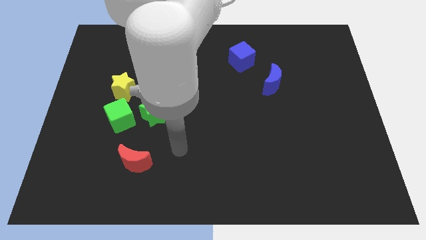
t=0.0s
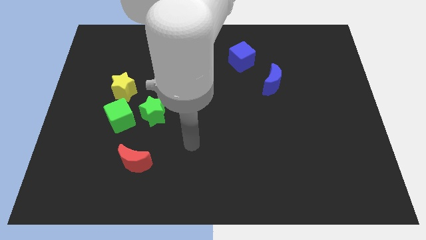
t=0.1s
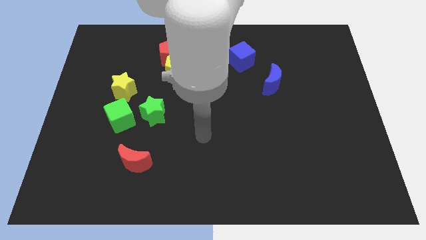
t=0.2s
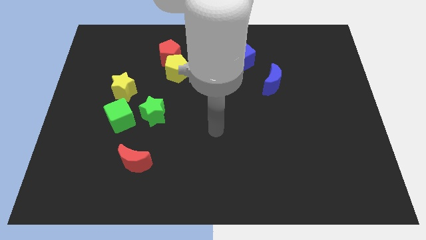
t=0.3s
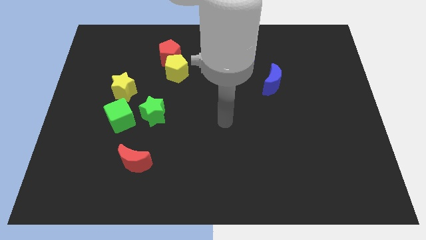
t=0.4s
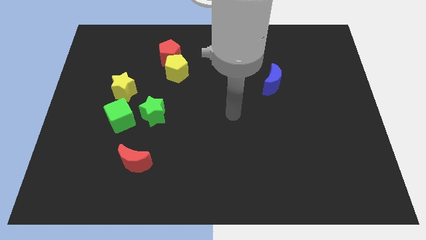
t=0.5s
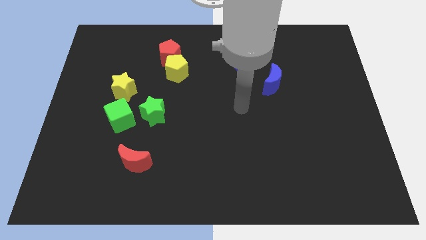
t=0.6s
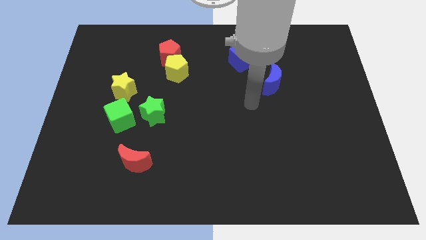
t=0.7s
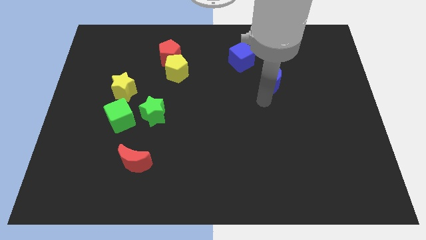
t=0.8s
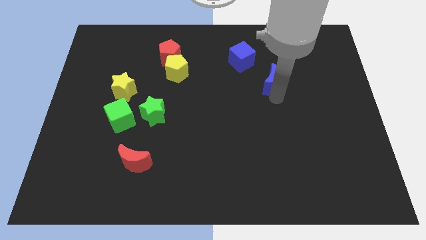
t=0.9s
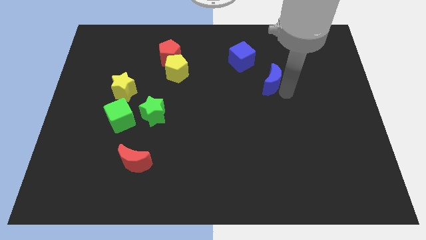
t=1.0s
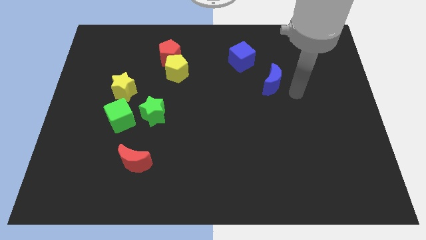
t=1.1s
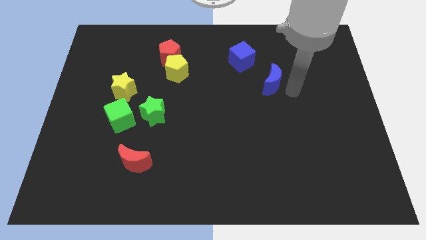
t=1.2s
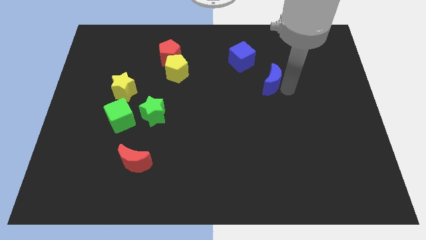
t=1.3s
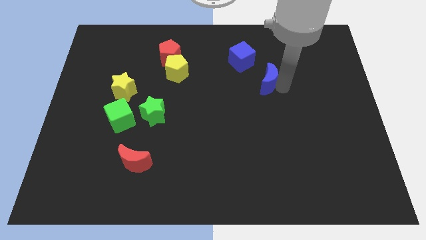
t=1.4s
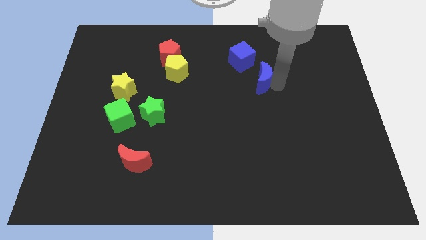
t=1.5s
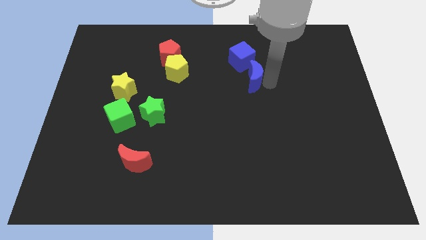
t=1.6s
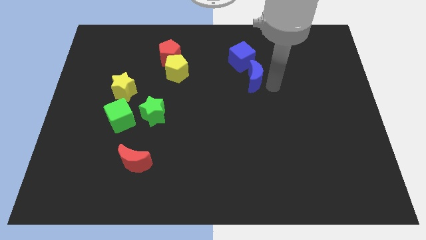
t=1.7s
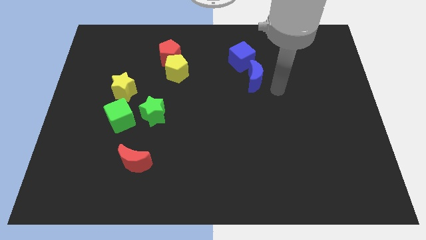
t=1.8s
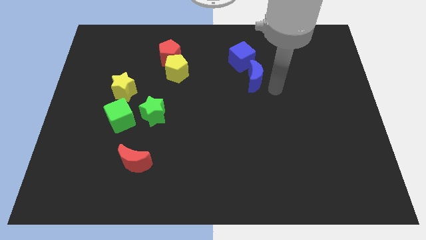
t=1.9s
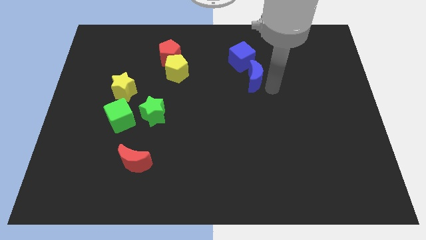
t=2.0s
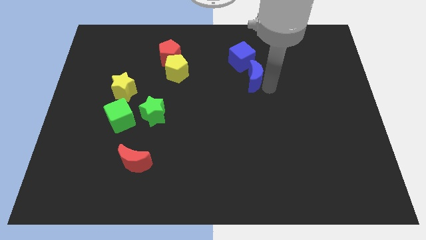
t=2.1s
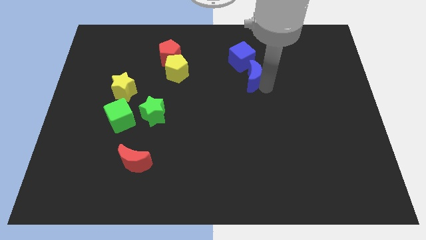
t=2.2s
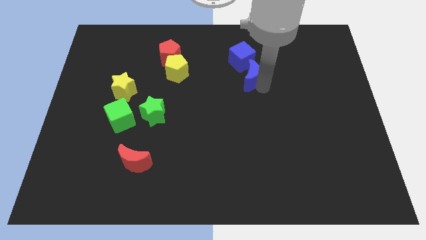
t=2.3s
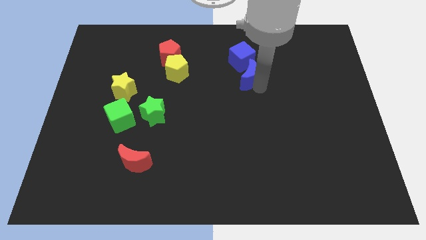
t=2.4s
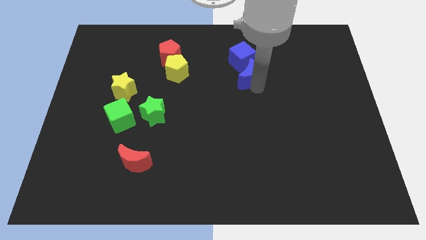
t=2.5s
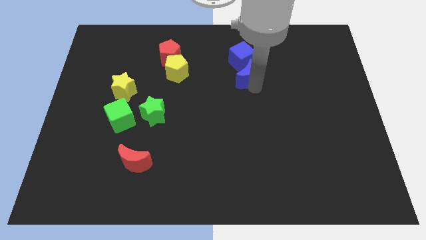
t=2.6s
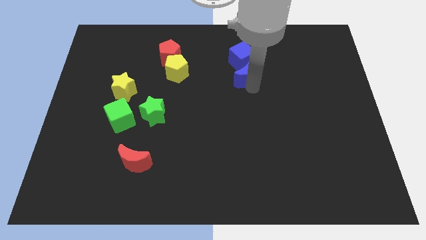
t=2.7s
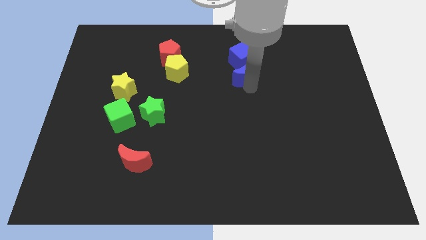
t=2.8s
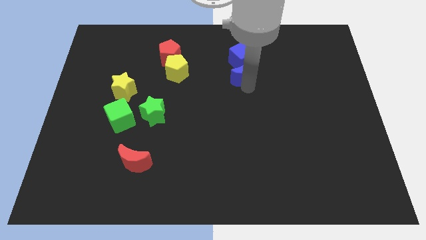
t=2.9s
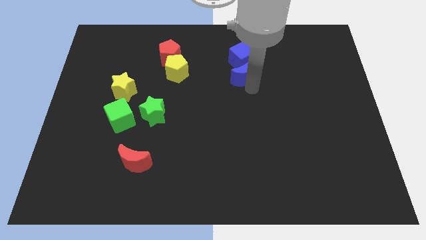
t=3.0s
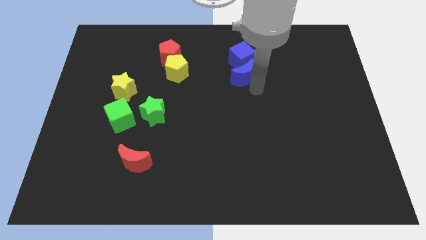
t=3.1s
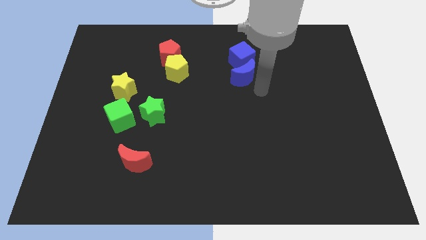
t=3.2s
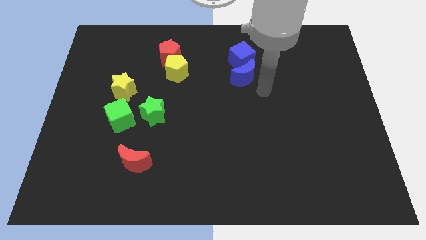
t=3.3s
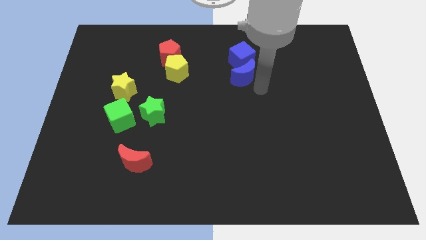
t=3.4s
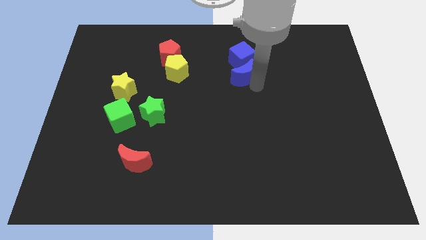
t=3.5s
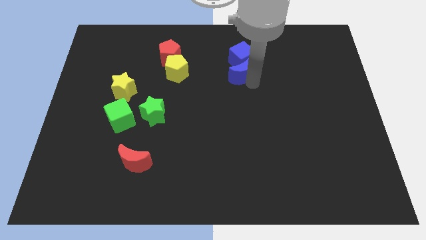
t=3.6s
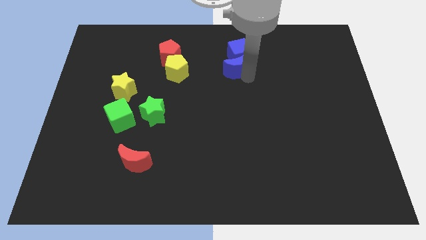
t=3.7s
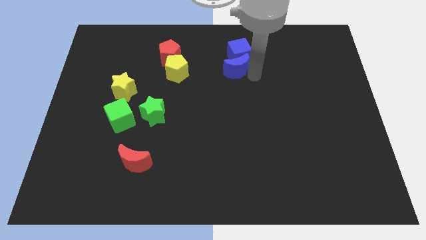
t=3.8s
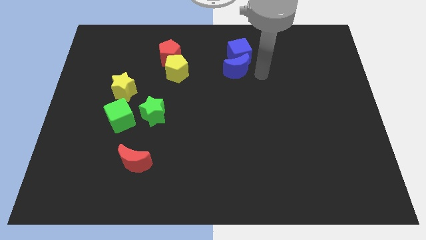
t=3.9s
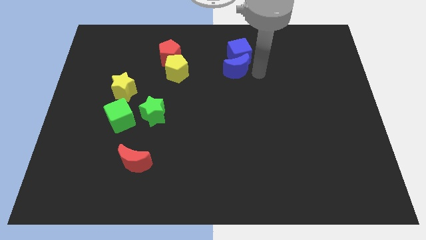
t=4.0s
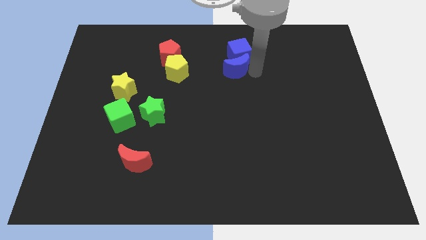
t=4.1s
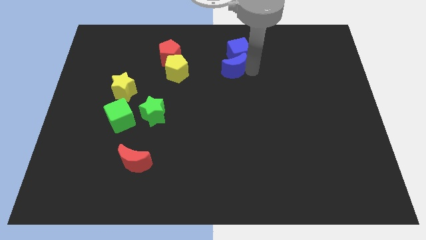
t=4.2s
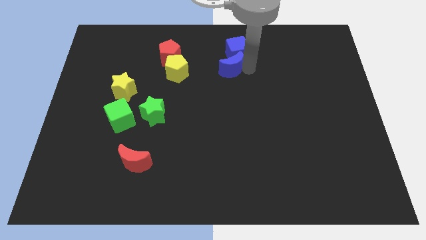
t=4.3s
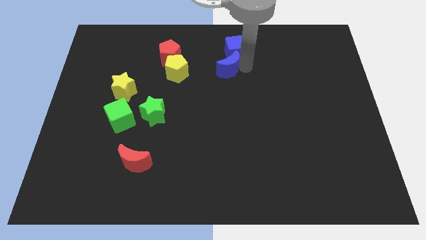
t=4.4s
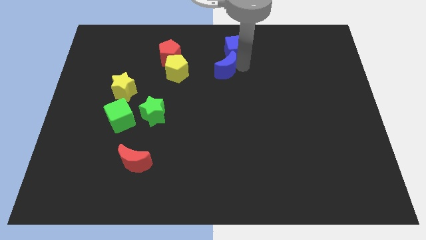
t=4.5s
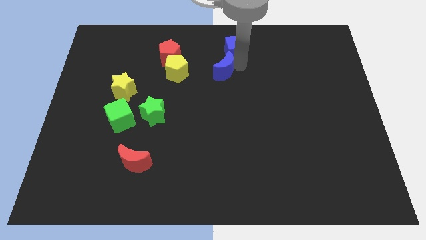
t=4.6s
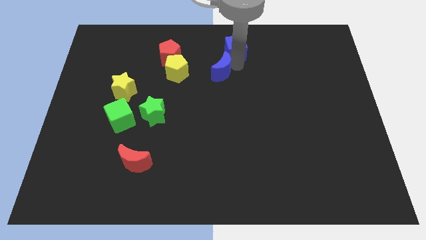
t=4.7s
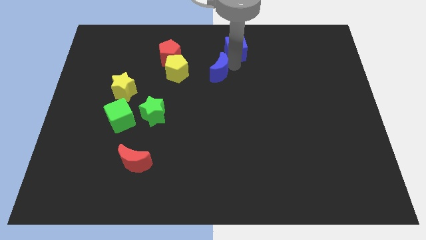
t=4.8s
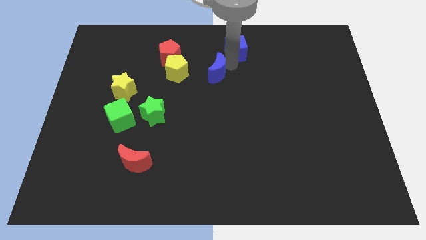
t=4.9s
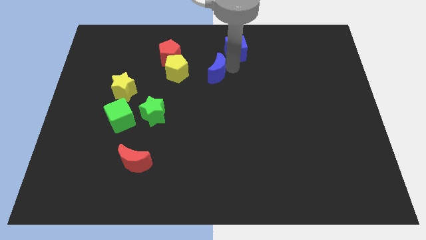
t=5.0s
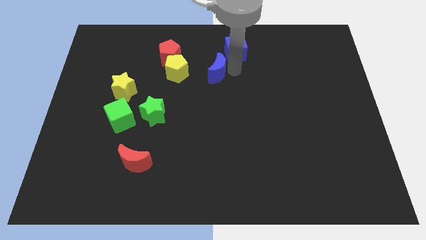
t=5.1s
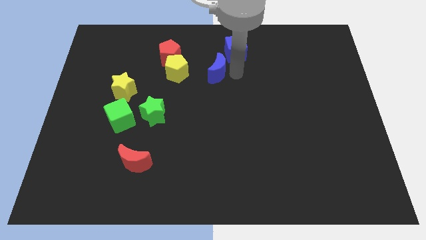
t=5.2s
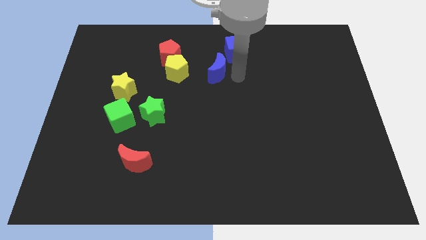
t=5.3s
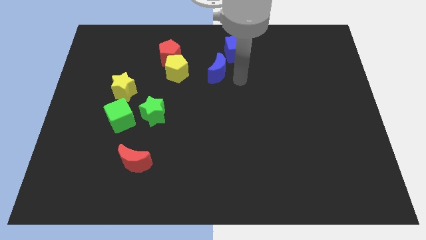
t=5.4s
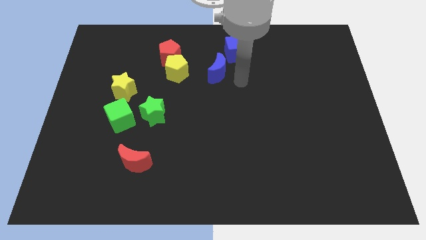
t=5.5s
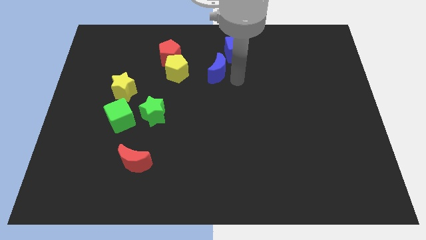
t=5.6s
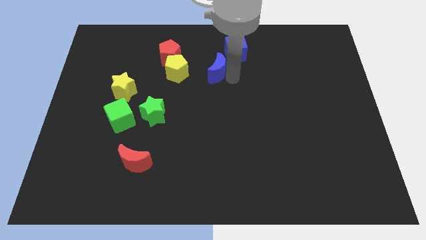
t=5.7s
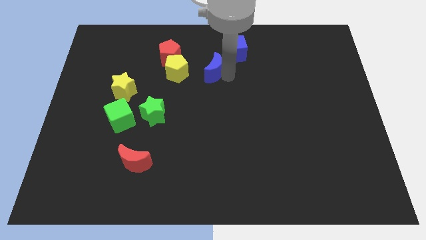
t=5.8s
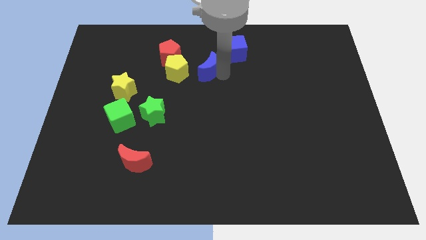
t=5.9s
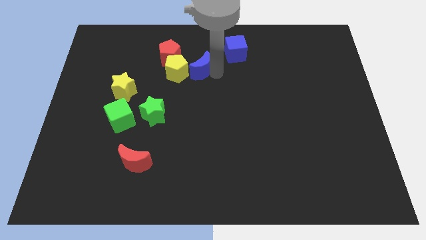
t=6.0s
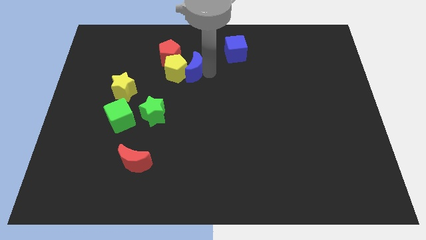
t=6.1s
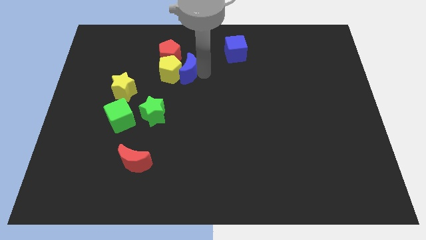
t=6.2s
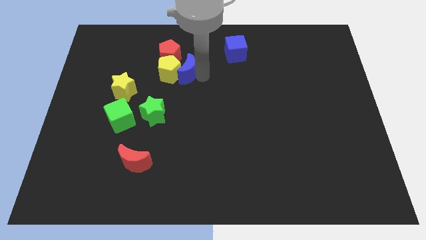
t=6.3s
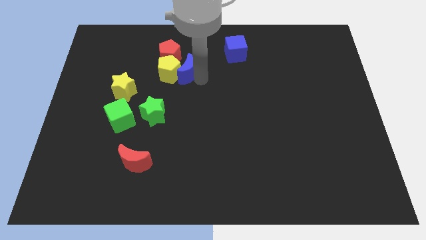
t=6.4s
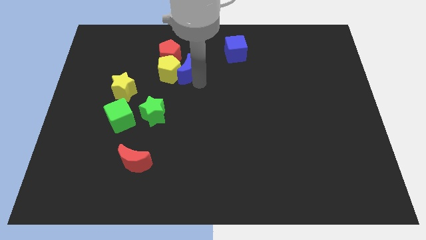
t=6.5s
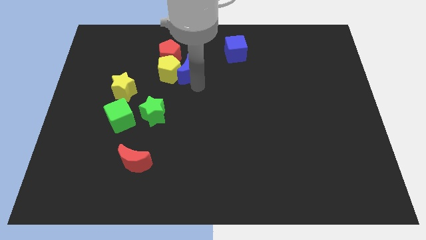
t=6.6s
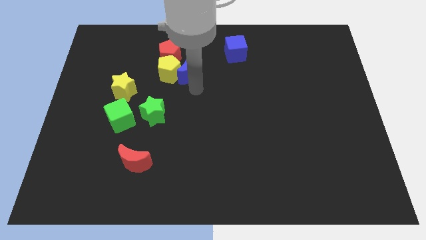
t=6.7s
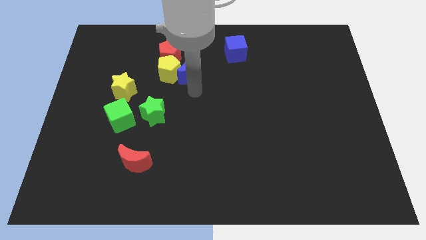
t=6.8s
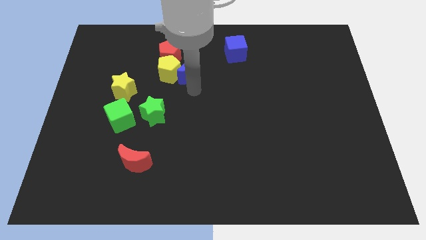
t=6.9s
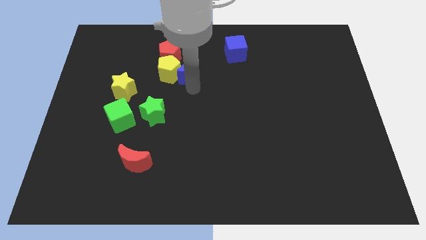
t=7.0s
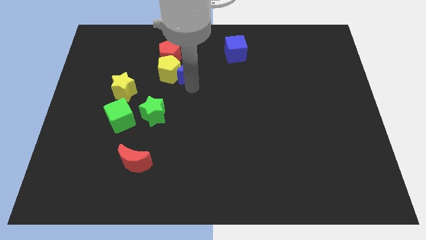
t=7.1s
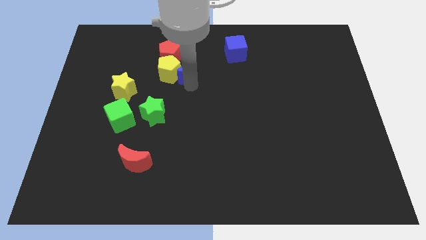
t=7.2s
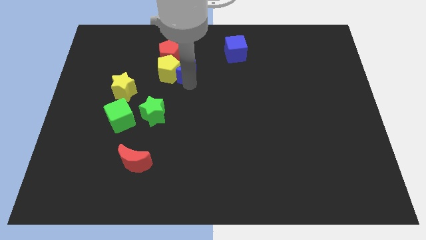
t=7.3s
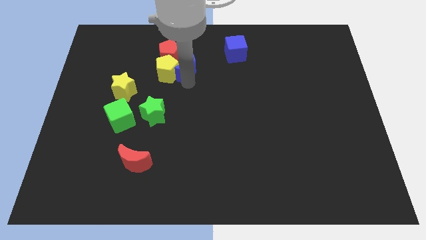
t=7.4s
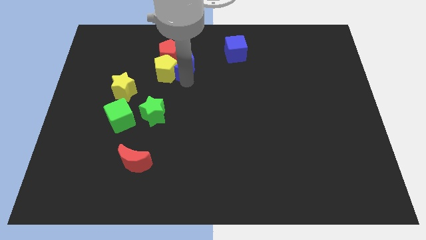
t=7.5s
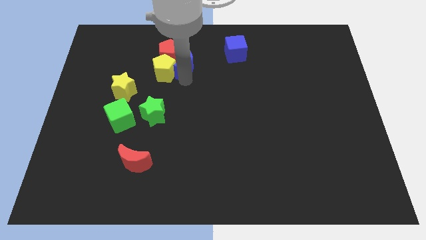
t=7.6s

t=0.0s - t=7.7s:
slide the blue moon next to the red pentagon
